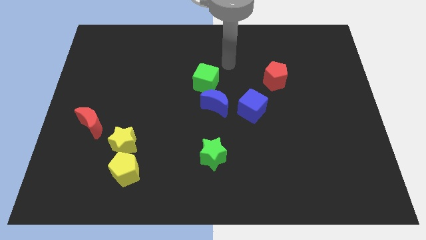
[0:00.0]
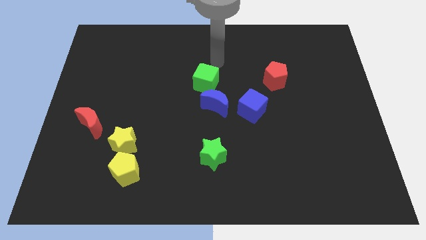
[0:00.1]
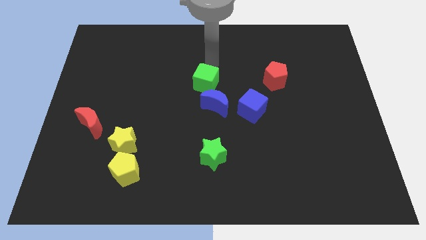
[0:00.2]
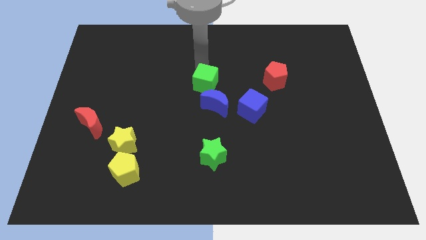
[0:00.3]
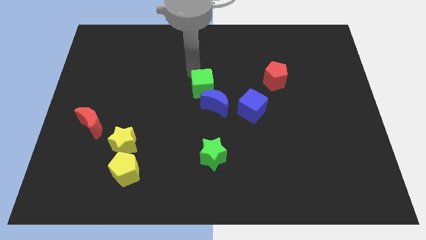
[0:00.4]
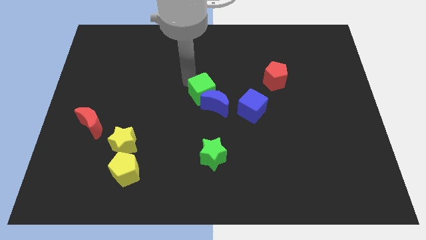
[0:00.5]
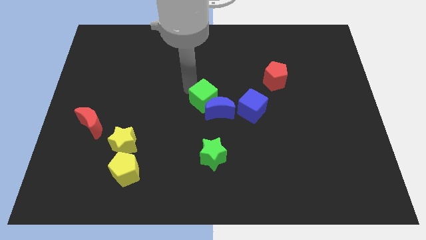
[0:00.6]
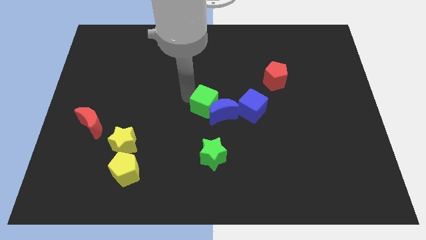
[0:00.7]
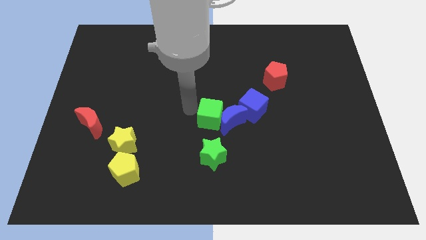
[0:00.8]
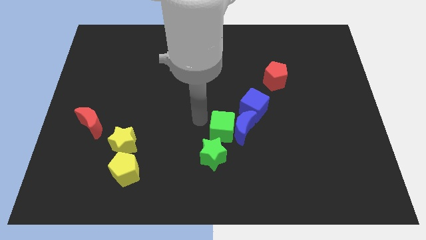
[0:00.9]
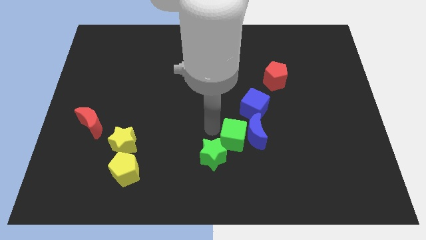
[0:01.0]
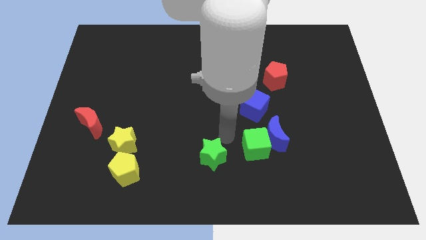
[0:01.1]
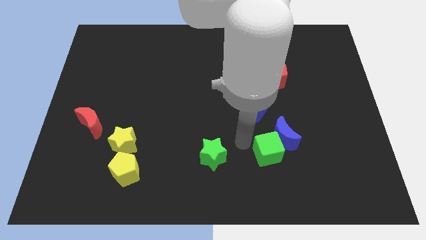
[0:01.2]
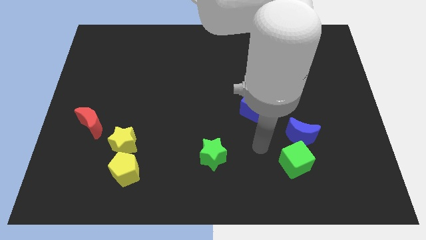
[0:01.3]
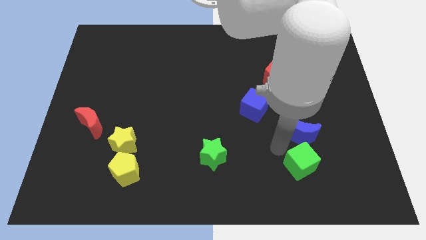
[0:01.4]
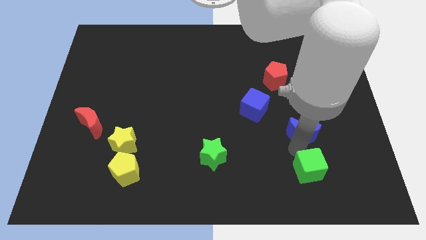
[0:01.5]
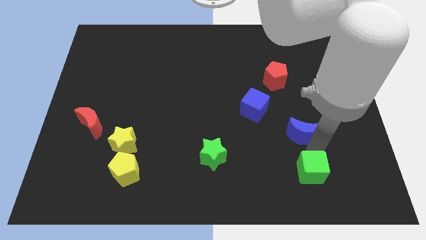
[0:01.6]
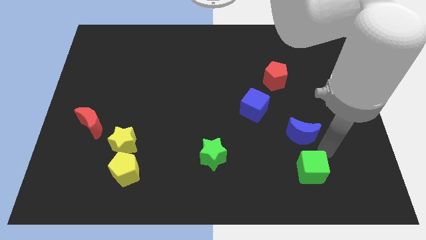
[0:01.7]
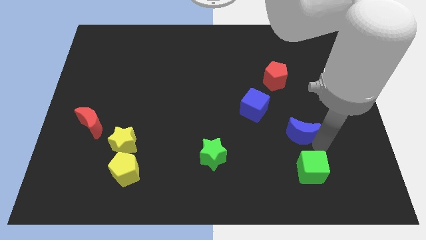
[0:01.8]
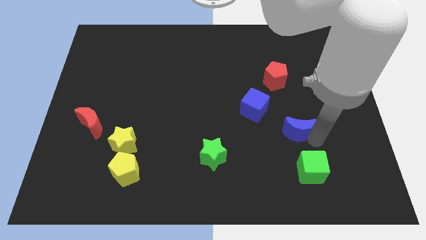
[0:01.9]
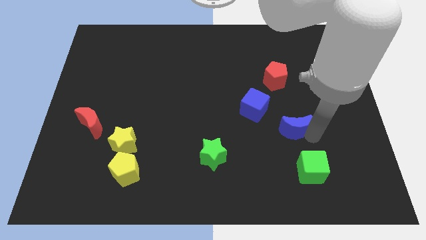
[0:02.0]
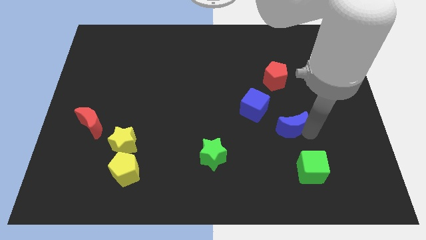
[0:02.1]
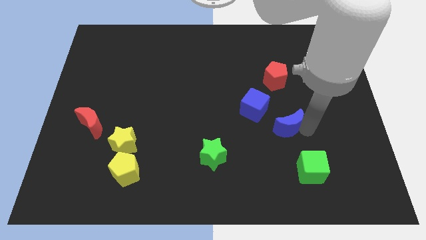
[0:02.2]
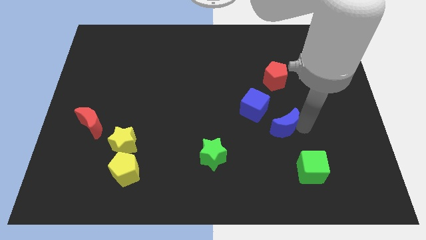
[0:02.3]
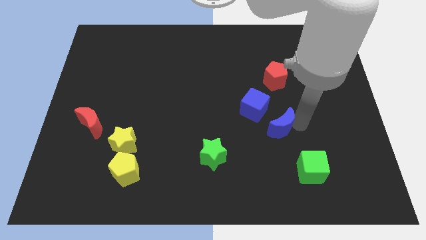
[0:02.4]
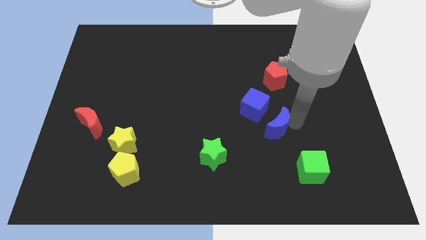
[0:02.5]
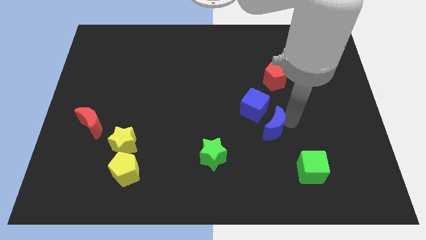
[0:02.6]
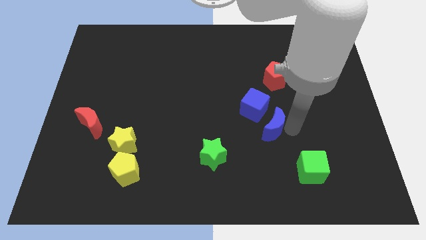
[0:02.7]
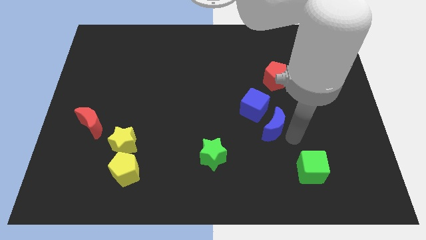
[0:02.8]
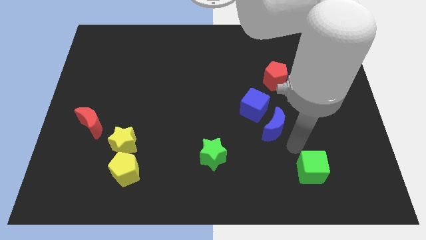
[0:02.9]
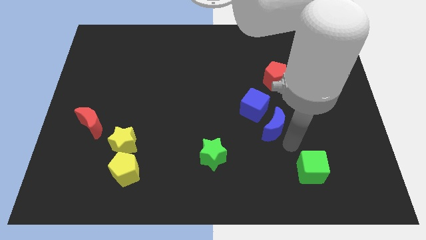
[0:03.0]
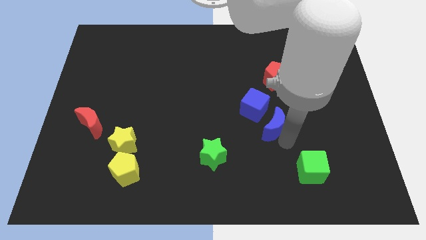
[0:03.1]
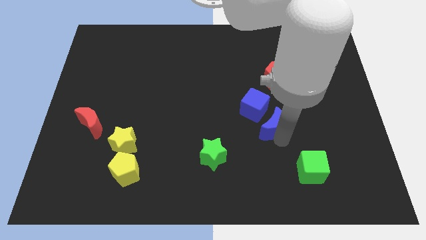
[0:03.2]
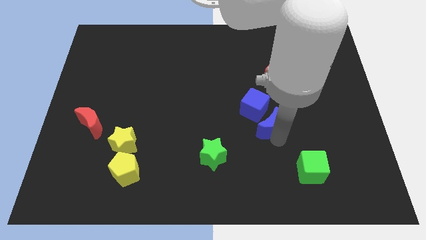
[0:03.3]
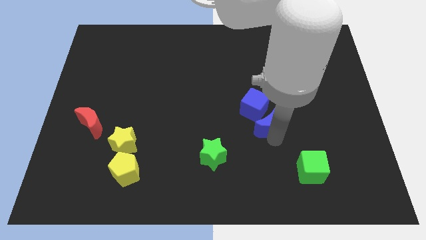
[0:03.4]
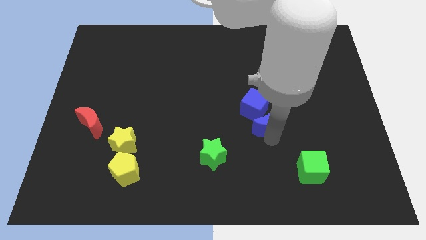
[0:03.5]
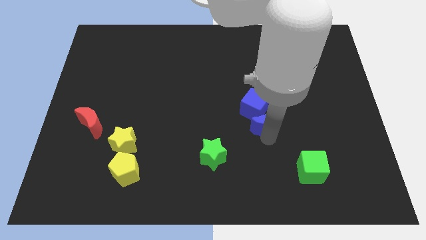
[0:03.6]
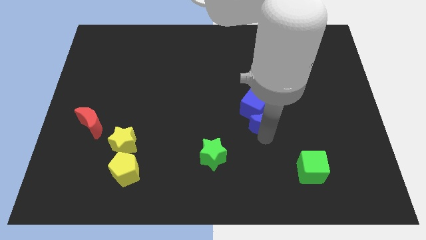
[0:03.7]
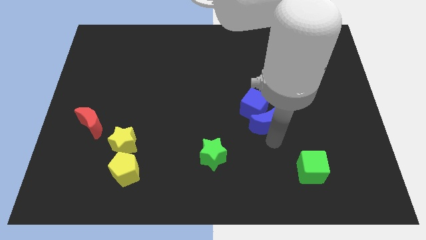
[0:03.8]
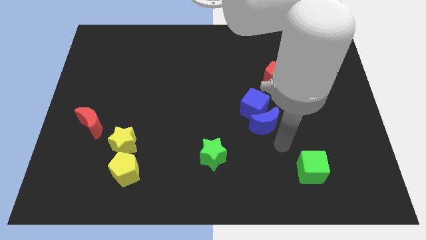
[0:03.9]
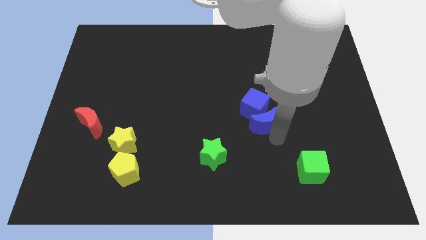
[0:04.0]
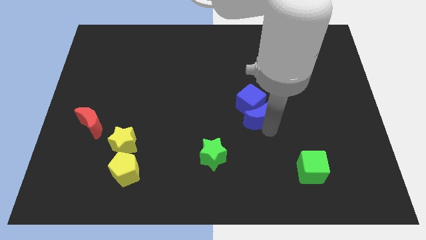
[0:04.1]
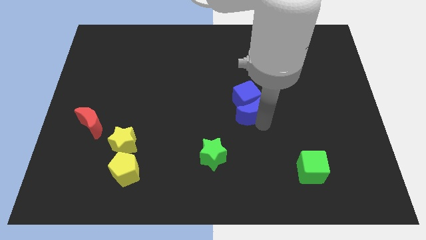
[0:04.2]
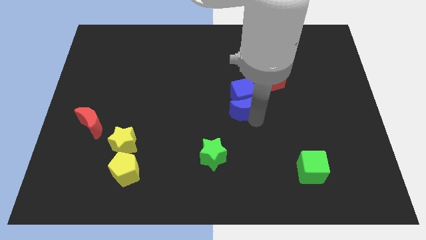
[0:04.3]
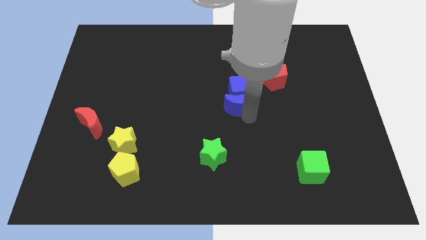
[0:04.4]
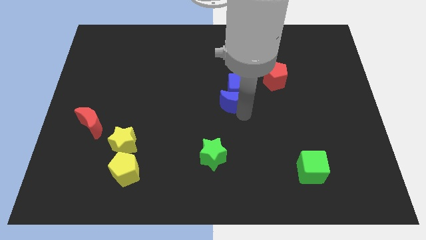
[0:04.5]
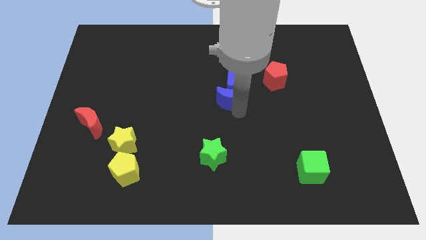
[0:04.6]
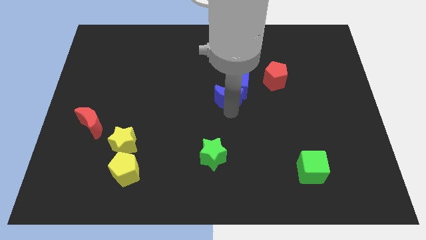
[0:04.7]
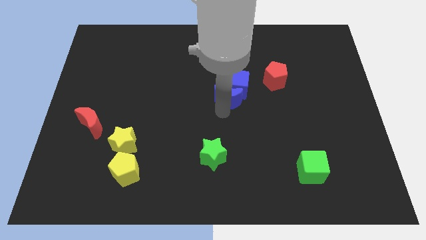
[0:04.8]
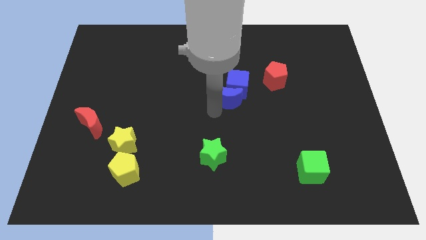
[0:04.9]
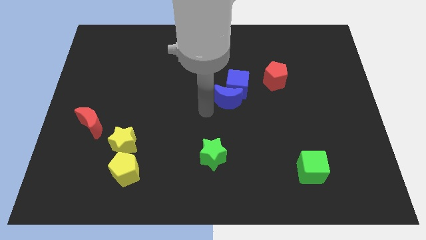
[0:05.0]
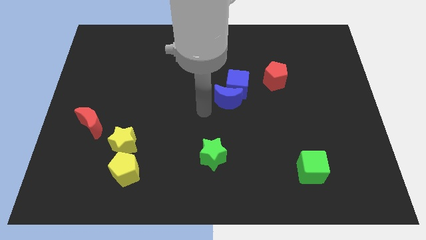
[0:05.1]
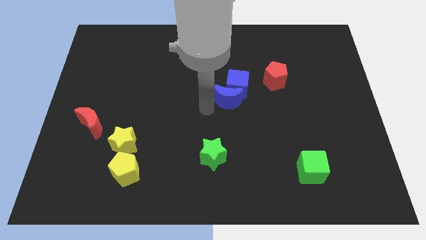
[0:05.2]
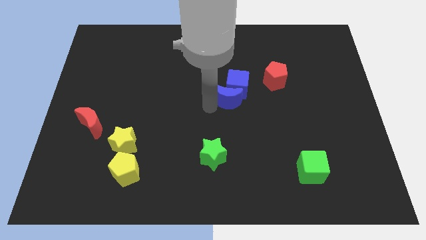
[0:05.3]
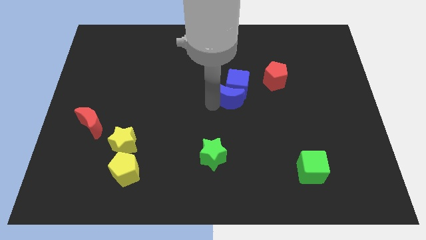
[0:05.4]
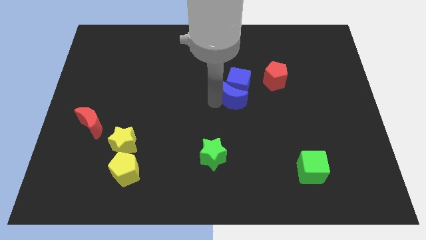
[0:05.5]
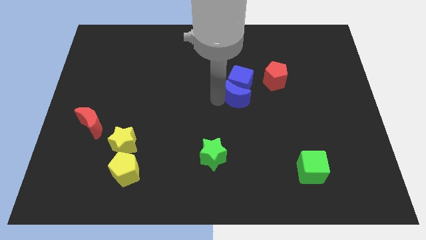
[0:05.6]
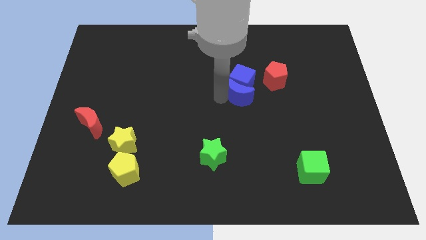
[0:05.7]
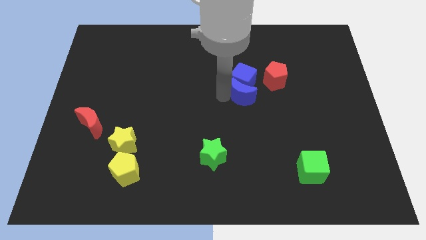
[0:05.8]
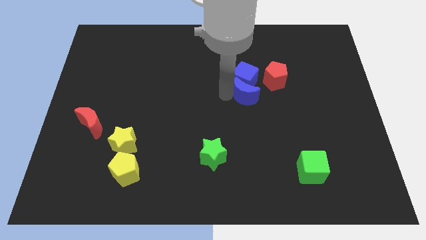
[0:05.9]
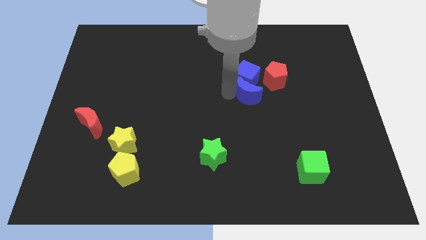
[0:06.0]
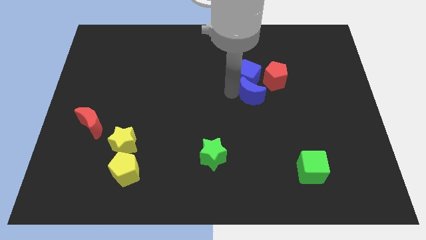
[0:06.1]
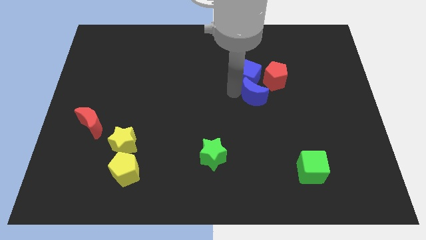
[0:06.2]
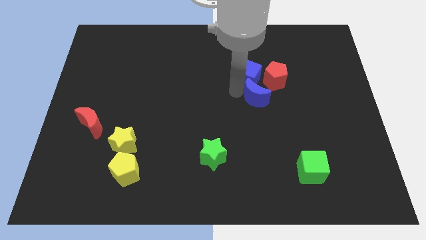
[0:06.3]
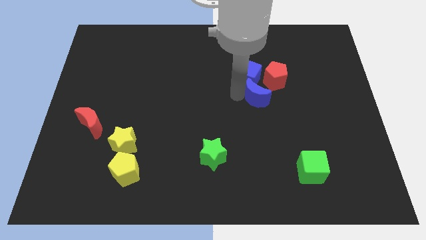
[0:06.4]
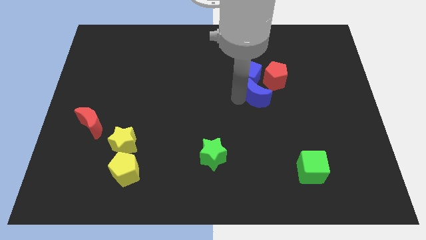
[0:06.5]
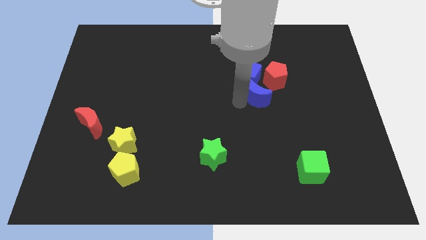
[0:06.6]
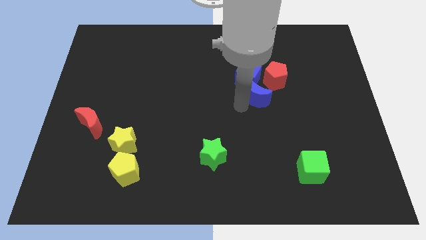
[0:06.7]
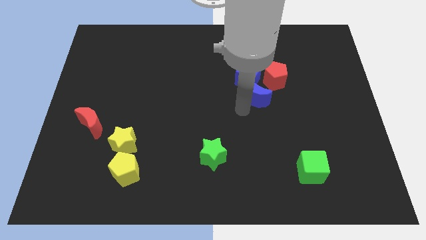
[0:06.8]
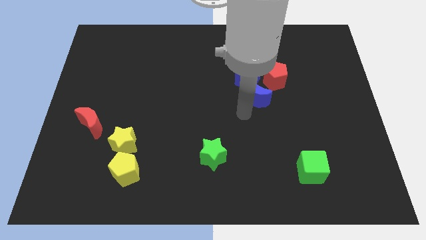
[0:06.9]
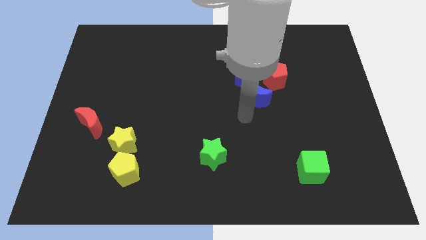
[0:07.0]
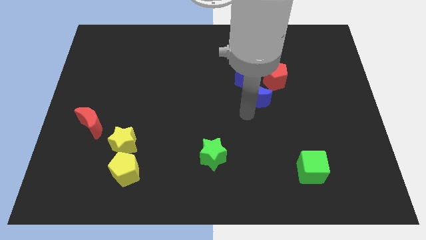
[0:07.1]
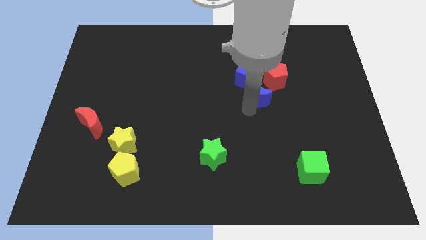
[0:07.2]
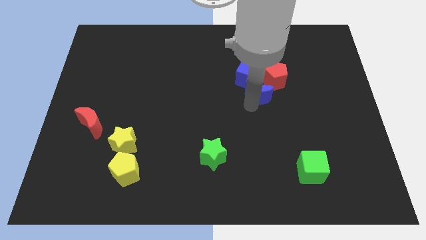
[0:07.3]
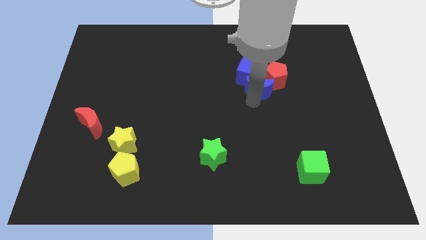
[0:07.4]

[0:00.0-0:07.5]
slide the blue moon next to the red pentagon
